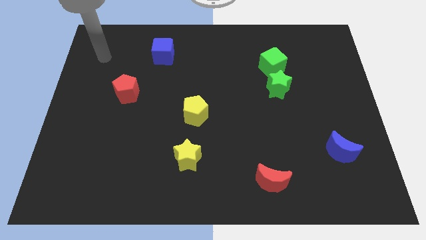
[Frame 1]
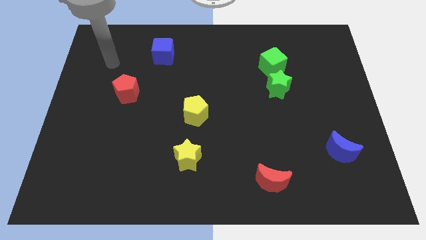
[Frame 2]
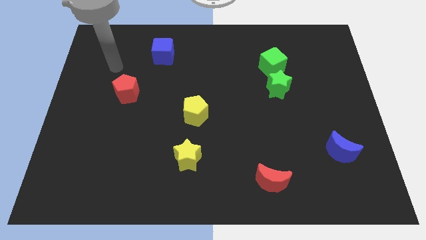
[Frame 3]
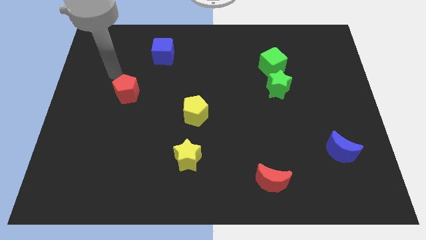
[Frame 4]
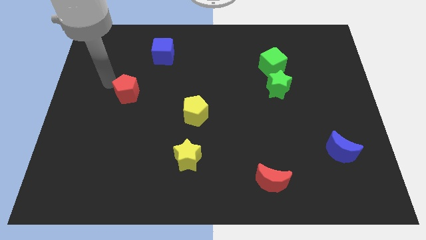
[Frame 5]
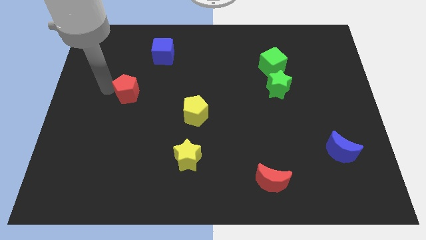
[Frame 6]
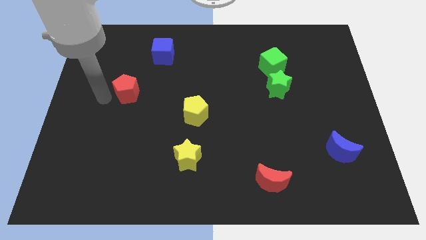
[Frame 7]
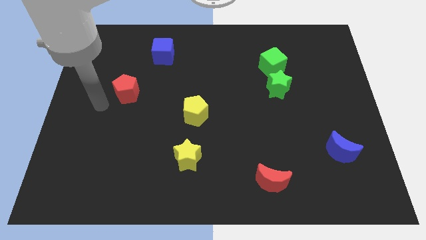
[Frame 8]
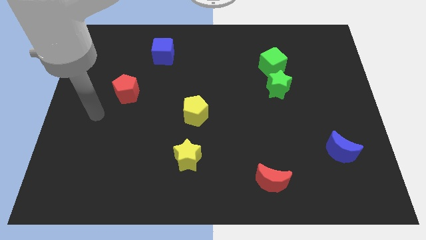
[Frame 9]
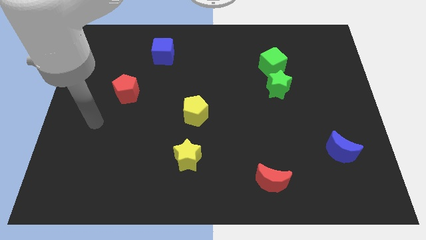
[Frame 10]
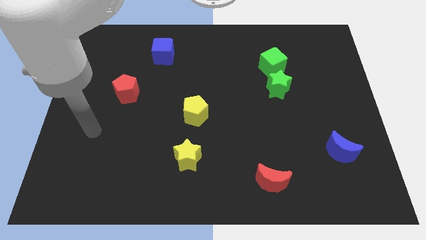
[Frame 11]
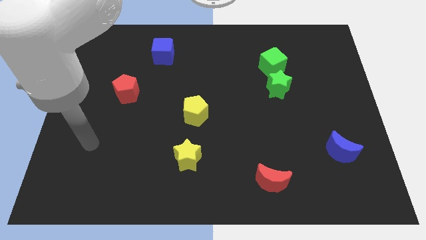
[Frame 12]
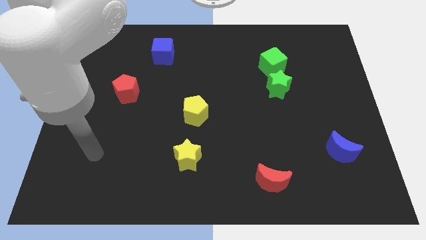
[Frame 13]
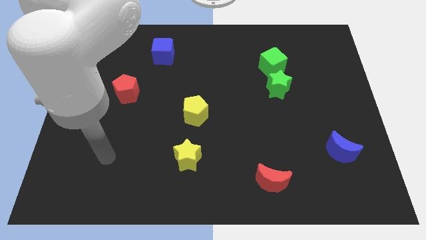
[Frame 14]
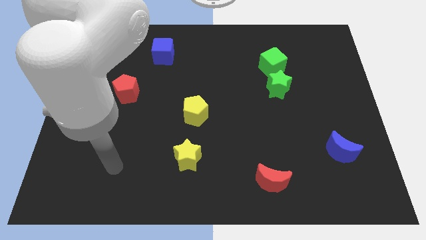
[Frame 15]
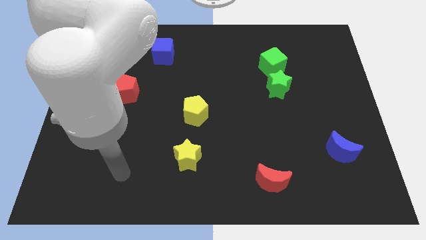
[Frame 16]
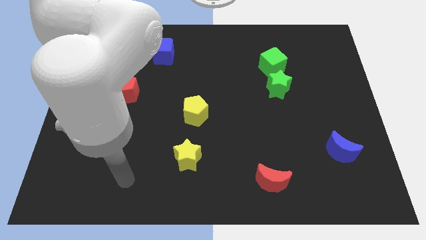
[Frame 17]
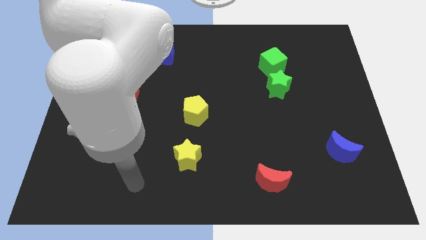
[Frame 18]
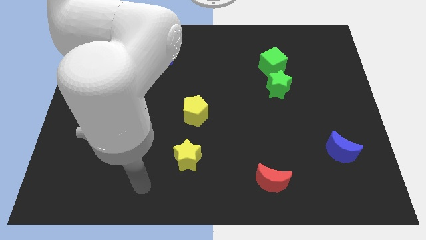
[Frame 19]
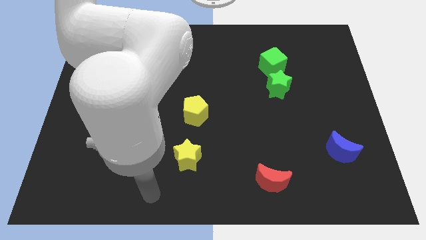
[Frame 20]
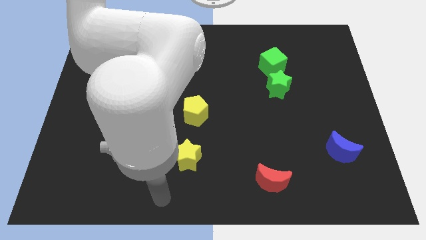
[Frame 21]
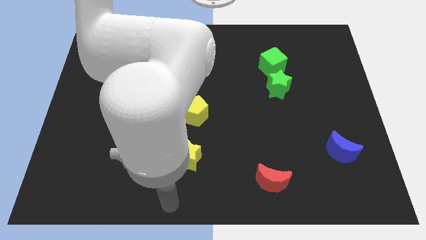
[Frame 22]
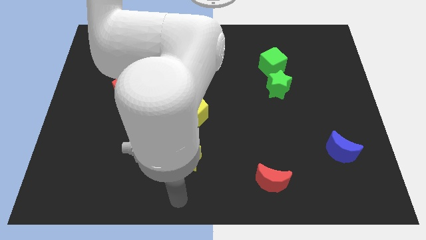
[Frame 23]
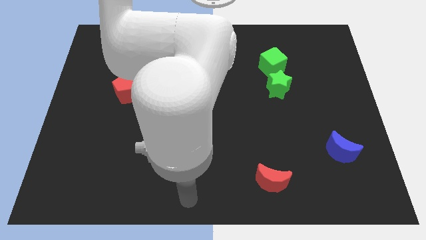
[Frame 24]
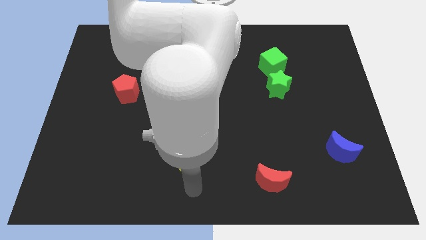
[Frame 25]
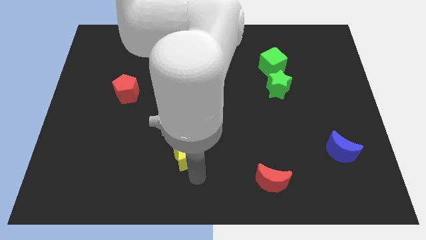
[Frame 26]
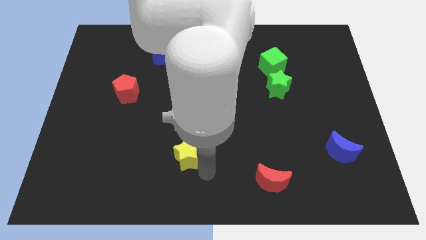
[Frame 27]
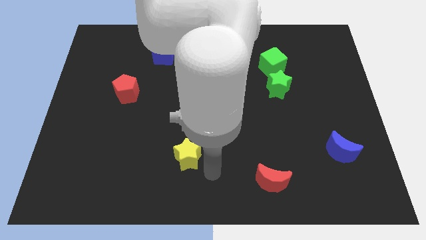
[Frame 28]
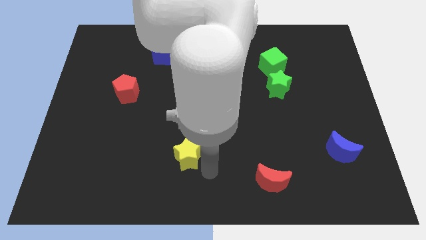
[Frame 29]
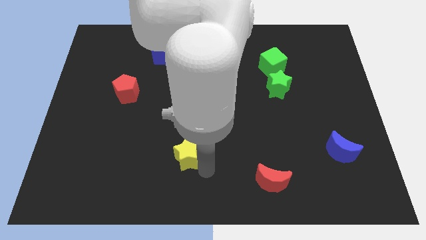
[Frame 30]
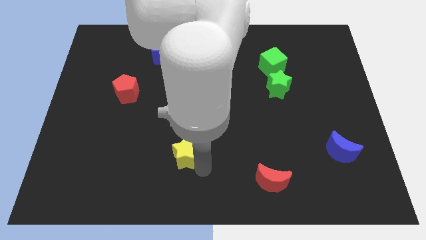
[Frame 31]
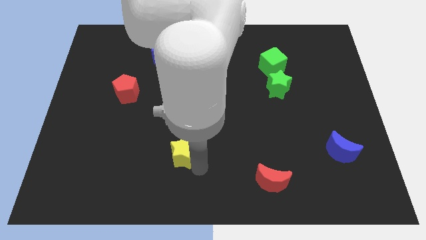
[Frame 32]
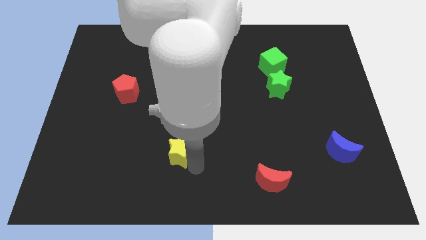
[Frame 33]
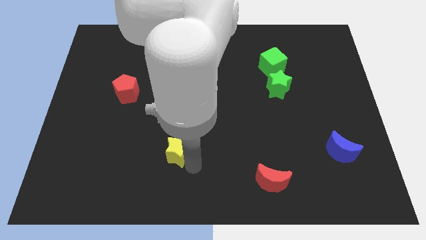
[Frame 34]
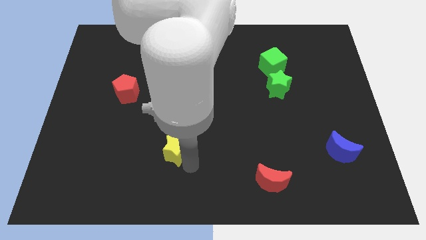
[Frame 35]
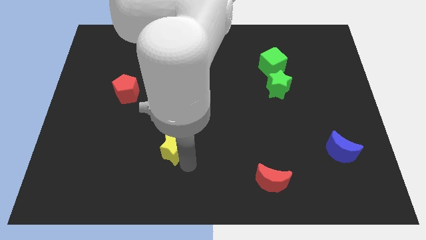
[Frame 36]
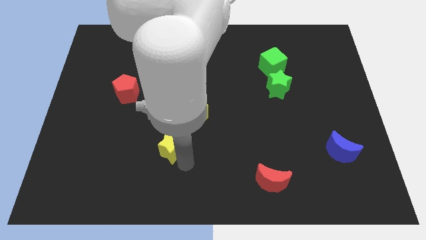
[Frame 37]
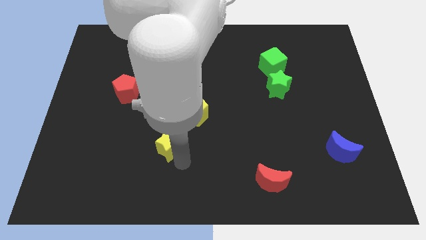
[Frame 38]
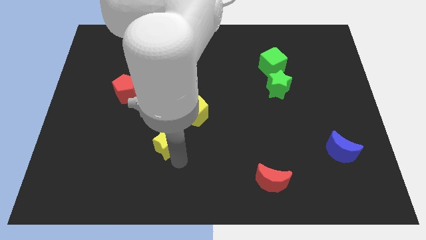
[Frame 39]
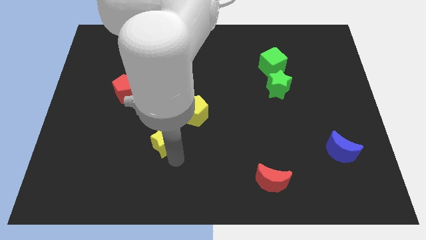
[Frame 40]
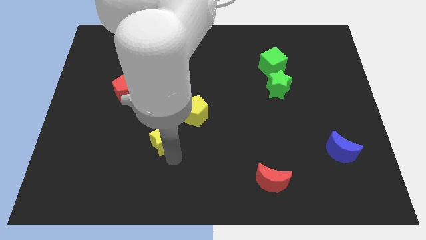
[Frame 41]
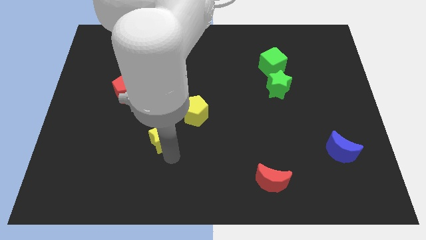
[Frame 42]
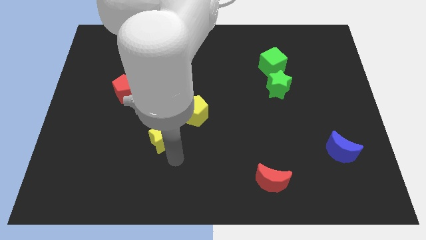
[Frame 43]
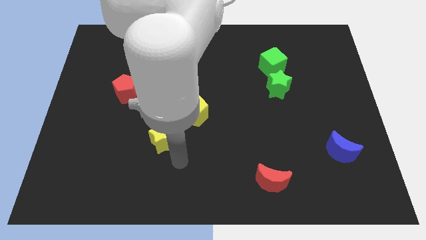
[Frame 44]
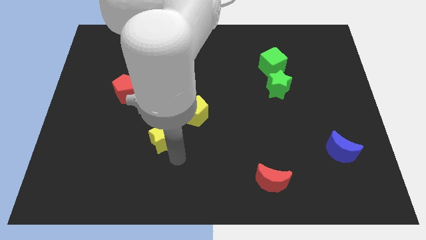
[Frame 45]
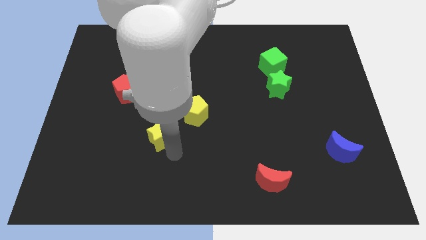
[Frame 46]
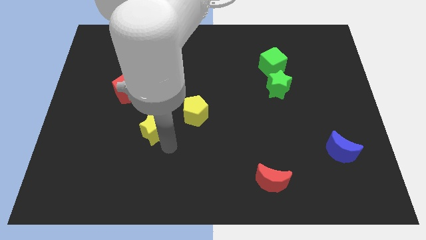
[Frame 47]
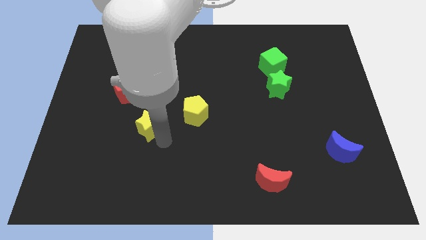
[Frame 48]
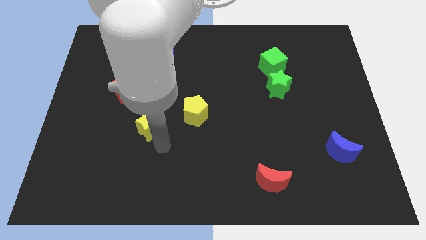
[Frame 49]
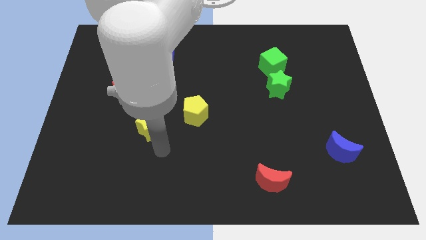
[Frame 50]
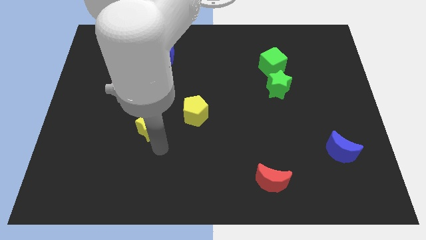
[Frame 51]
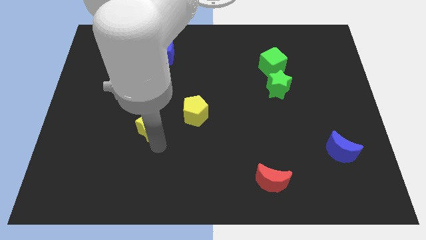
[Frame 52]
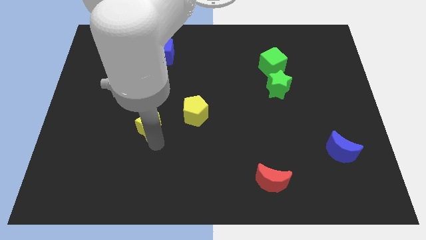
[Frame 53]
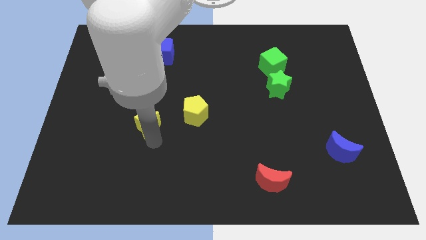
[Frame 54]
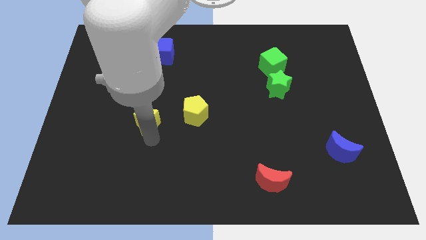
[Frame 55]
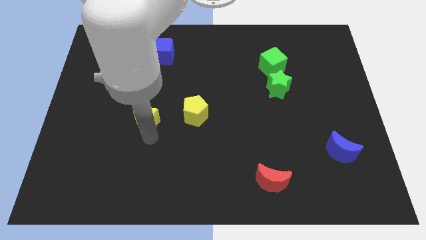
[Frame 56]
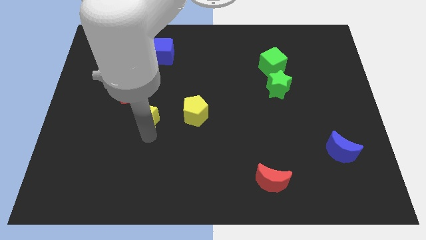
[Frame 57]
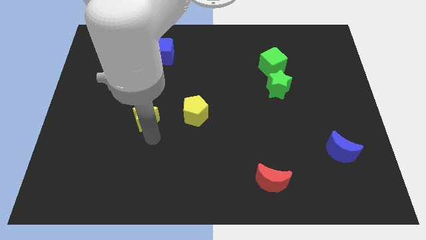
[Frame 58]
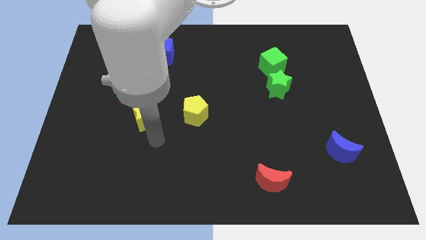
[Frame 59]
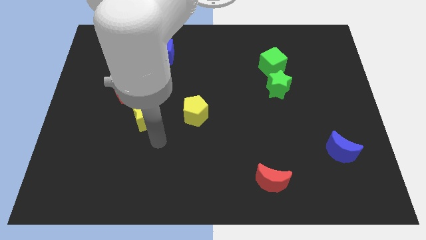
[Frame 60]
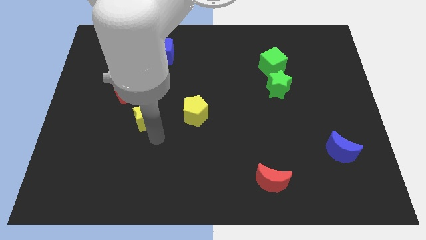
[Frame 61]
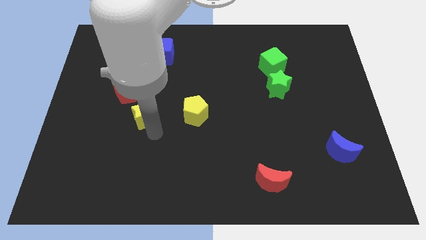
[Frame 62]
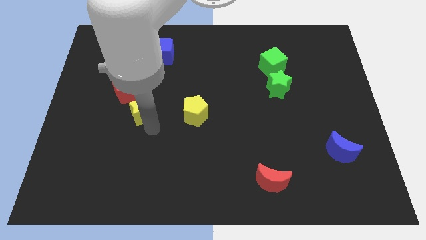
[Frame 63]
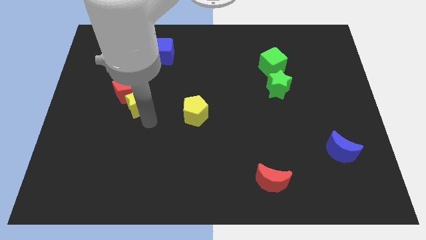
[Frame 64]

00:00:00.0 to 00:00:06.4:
move the yellow star next to the red pentagon

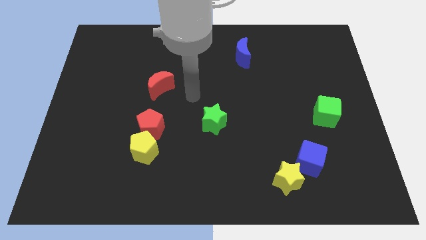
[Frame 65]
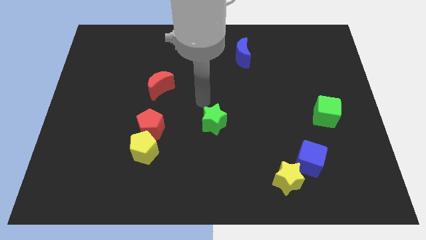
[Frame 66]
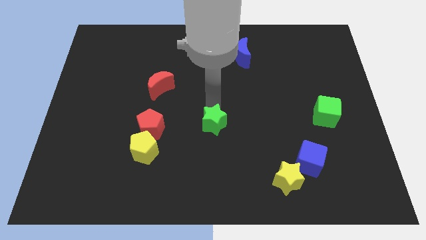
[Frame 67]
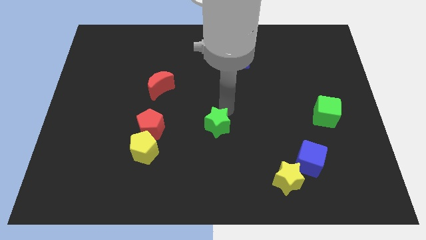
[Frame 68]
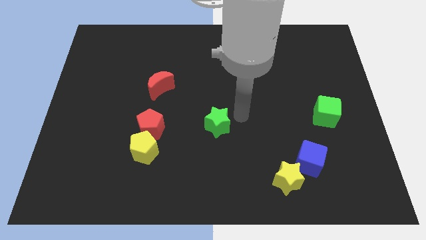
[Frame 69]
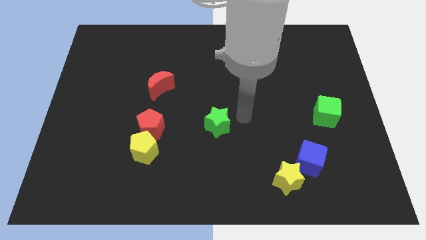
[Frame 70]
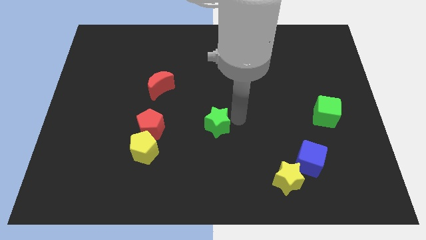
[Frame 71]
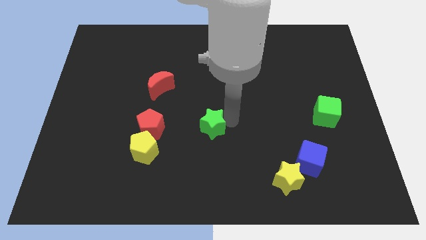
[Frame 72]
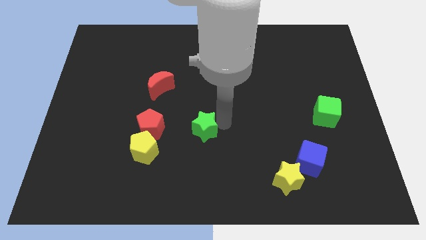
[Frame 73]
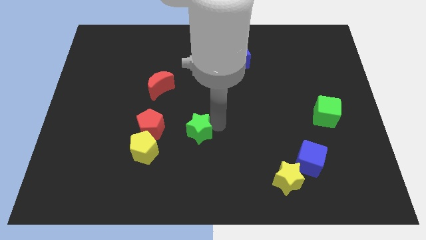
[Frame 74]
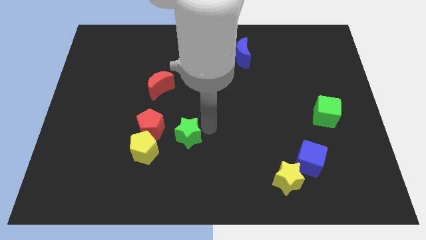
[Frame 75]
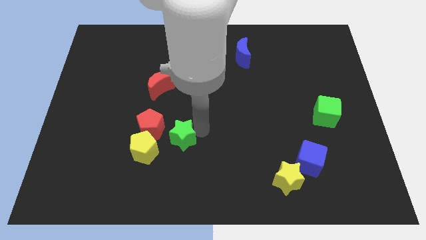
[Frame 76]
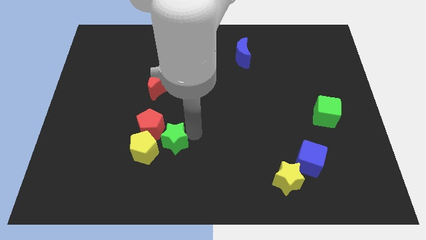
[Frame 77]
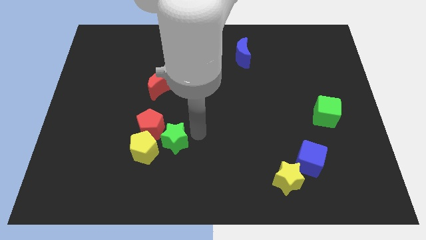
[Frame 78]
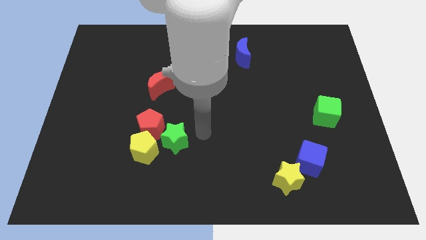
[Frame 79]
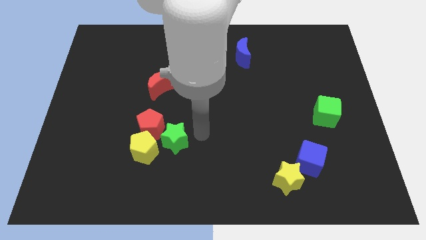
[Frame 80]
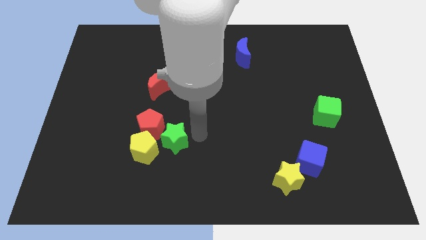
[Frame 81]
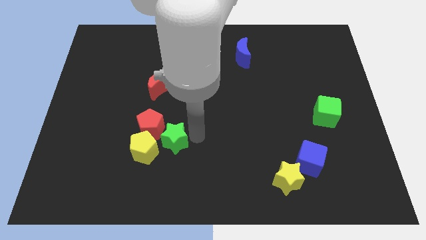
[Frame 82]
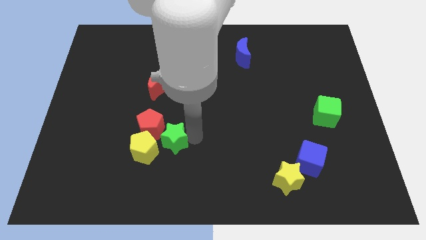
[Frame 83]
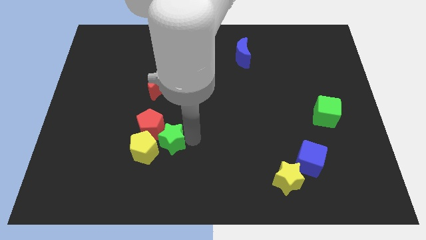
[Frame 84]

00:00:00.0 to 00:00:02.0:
put the green star close to the yellow pentagon
